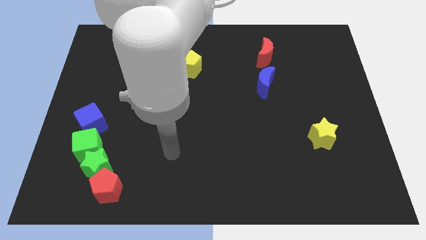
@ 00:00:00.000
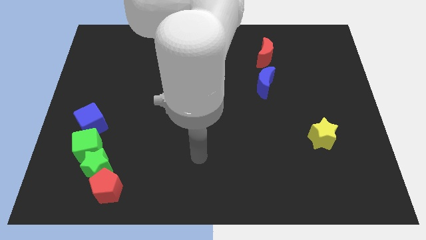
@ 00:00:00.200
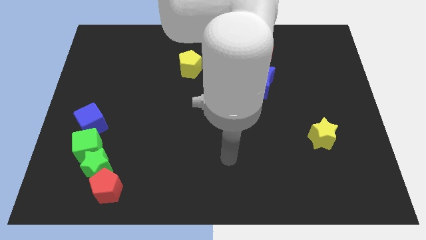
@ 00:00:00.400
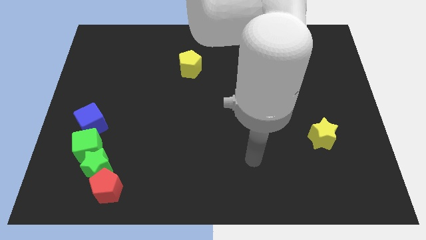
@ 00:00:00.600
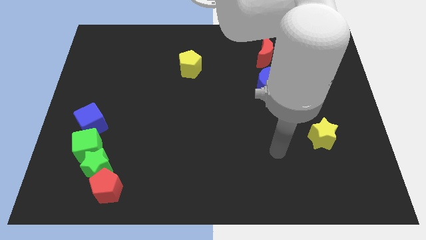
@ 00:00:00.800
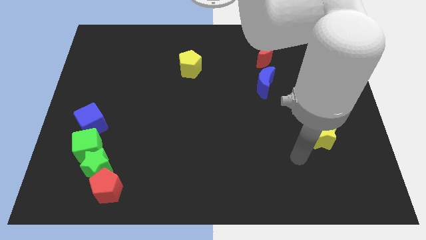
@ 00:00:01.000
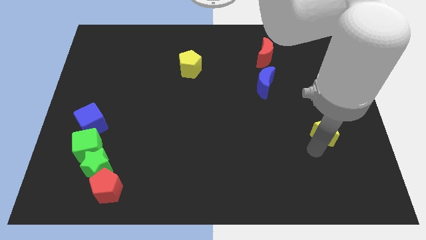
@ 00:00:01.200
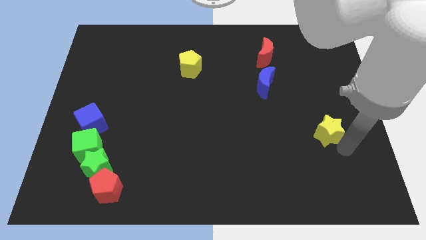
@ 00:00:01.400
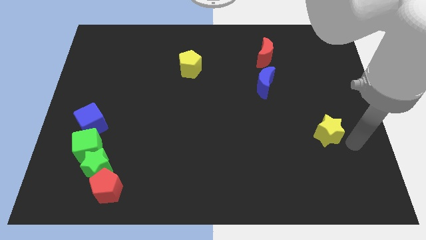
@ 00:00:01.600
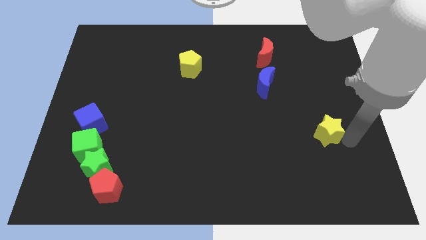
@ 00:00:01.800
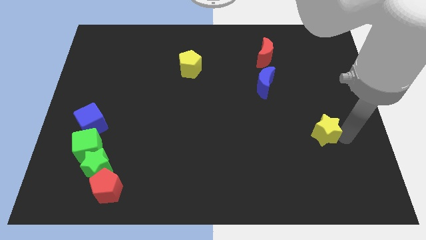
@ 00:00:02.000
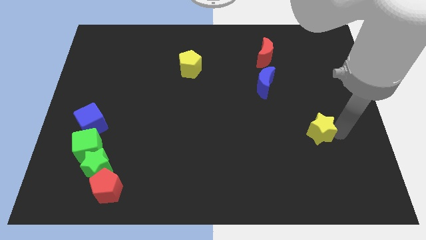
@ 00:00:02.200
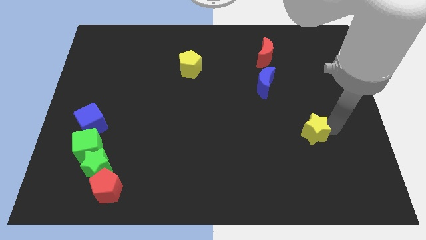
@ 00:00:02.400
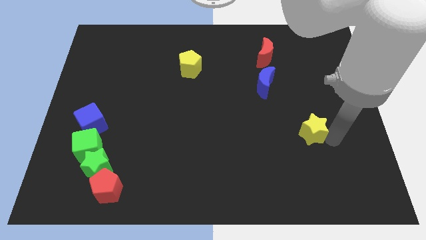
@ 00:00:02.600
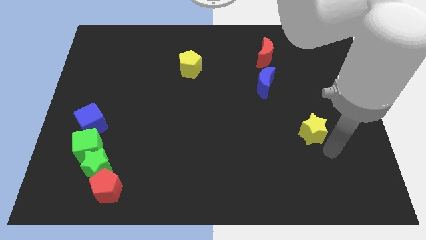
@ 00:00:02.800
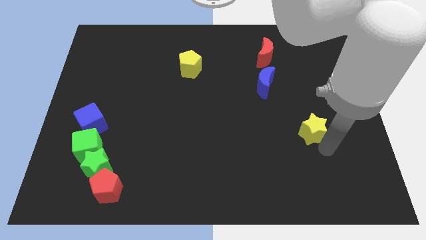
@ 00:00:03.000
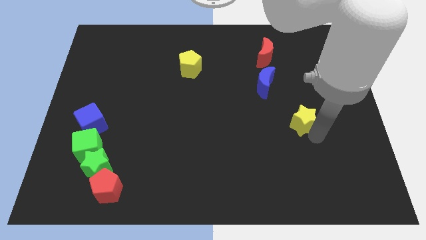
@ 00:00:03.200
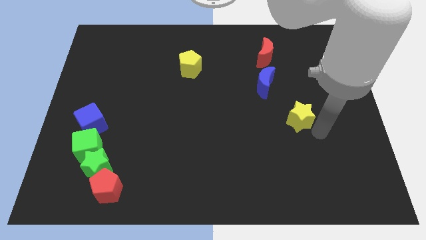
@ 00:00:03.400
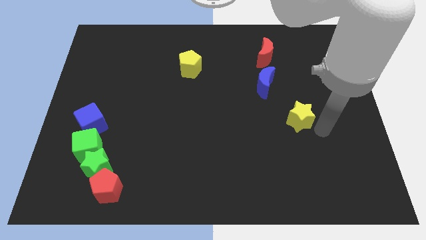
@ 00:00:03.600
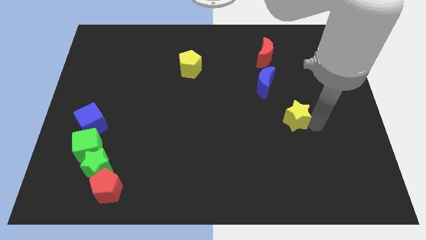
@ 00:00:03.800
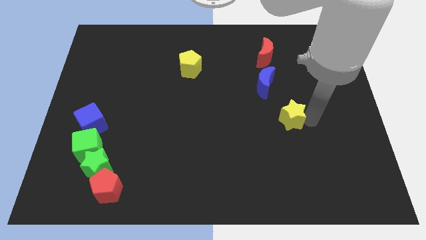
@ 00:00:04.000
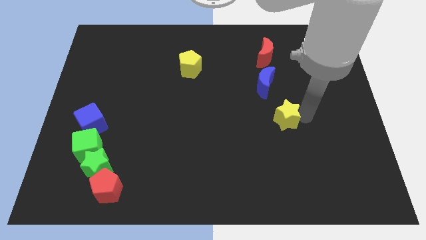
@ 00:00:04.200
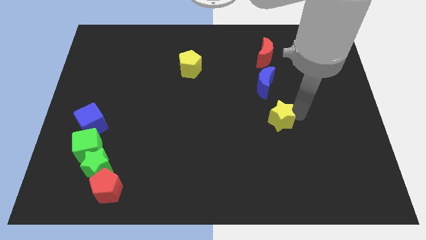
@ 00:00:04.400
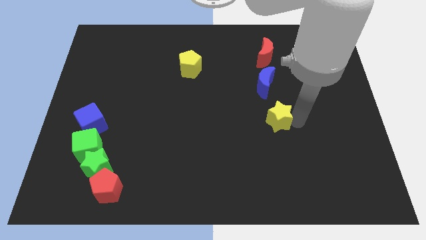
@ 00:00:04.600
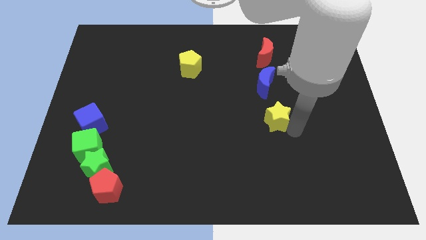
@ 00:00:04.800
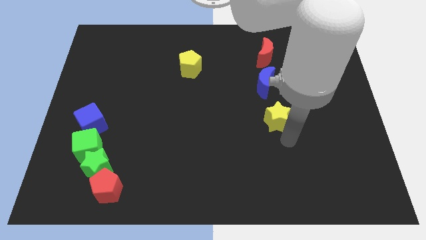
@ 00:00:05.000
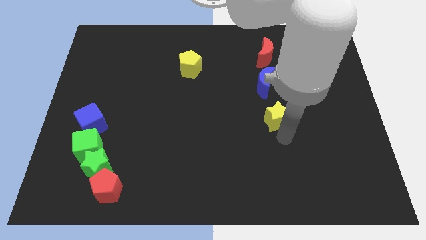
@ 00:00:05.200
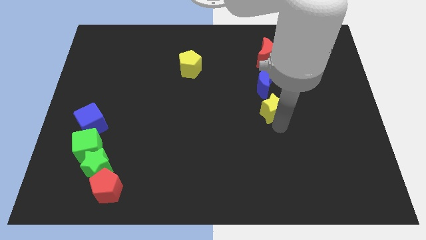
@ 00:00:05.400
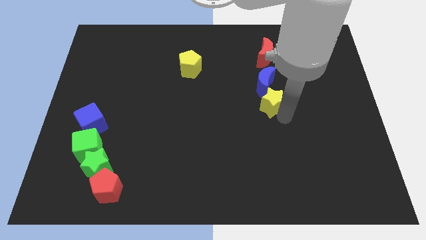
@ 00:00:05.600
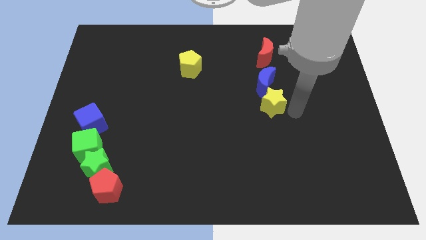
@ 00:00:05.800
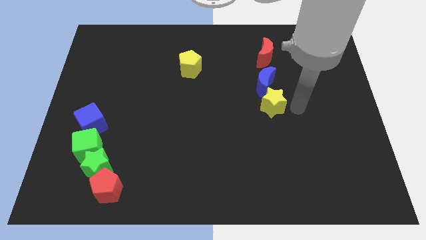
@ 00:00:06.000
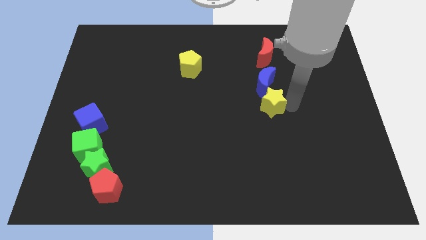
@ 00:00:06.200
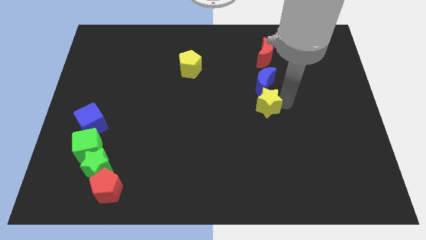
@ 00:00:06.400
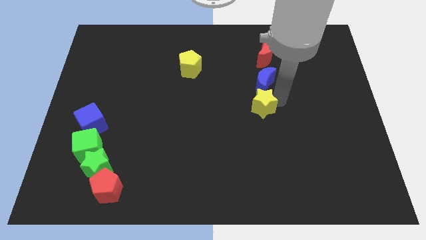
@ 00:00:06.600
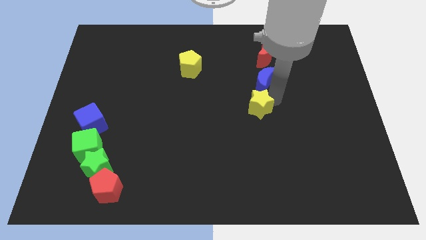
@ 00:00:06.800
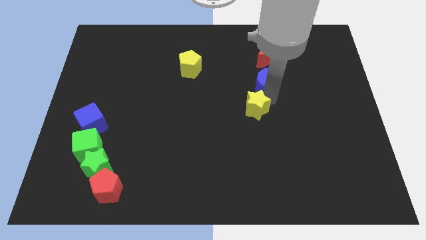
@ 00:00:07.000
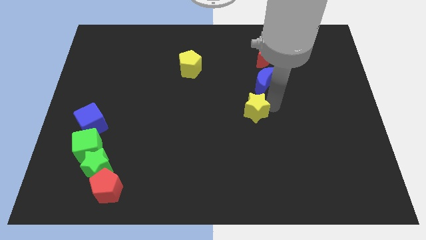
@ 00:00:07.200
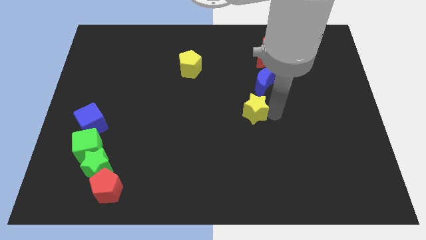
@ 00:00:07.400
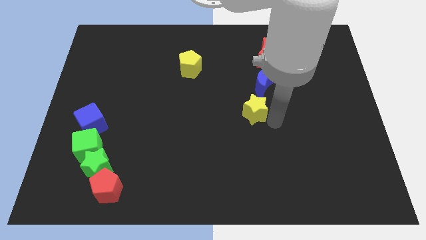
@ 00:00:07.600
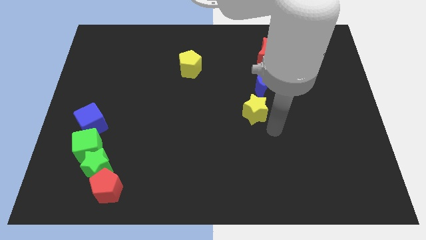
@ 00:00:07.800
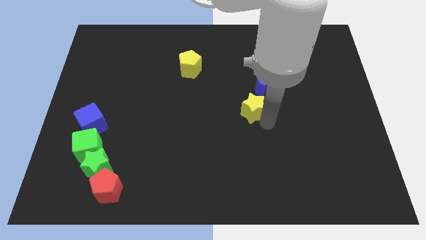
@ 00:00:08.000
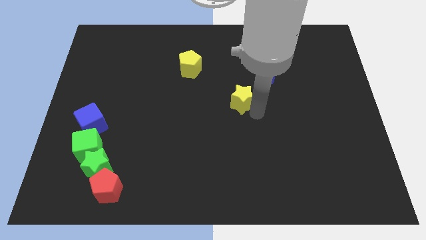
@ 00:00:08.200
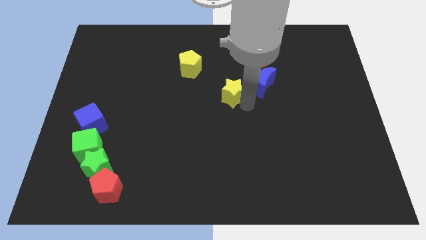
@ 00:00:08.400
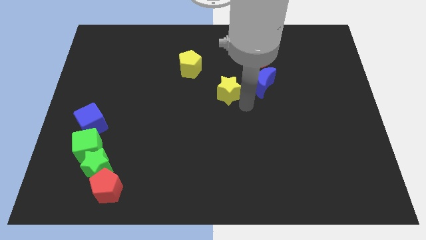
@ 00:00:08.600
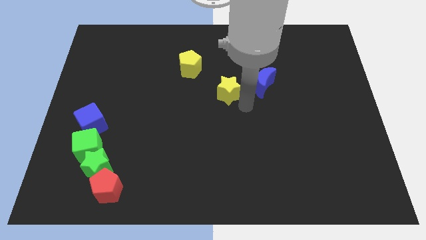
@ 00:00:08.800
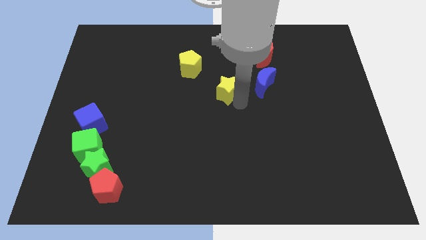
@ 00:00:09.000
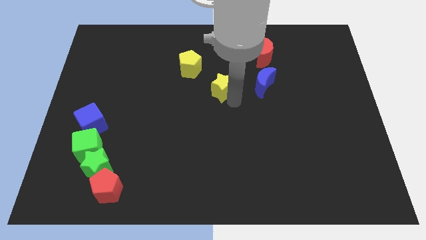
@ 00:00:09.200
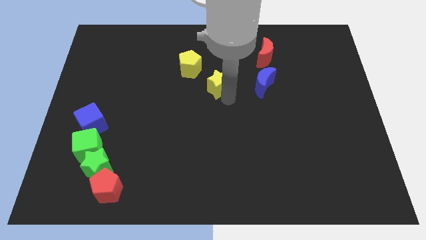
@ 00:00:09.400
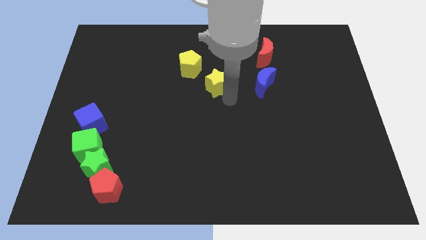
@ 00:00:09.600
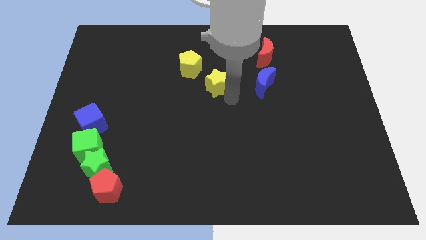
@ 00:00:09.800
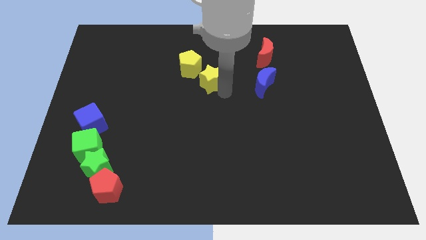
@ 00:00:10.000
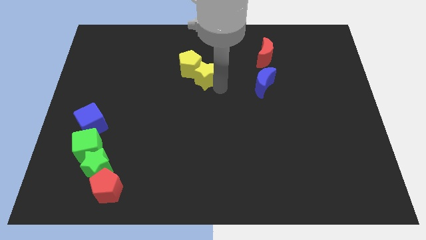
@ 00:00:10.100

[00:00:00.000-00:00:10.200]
slide the yellow star towards the yellow pentagon

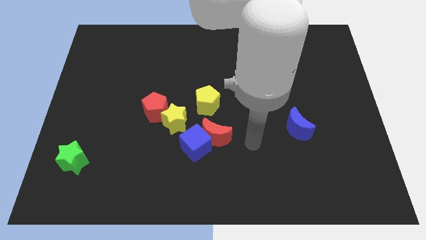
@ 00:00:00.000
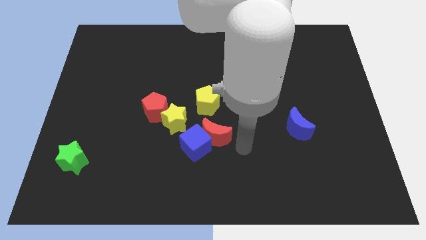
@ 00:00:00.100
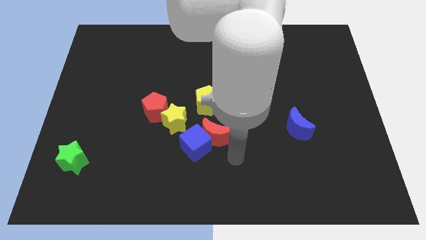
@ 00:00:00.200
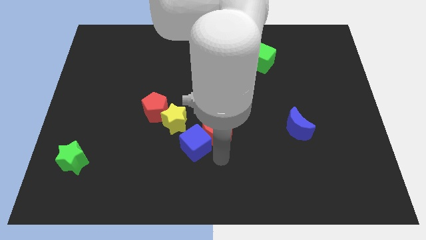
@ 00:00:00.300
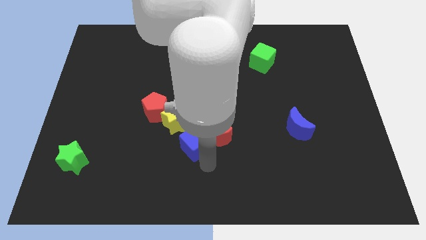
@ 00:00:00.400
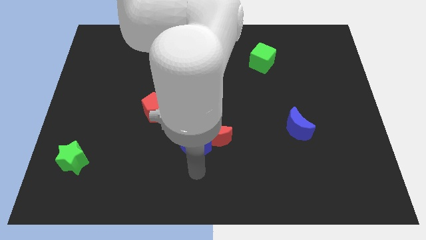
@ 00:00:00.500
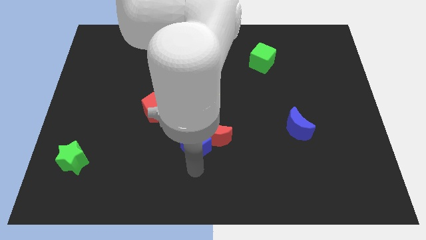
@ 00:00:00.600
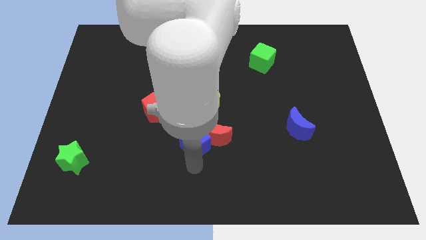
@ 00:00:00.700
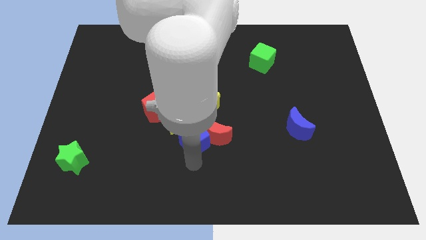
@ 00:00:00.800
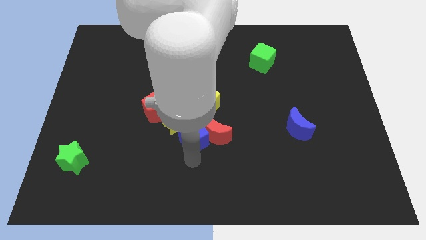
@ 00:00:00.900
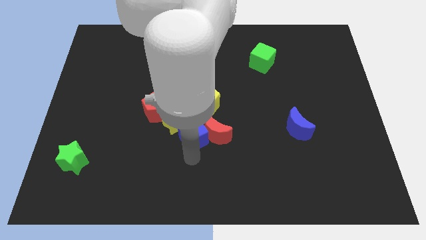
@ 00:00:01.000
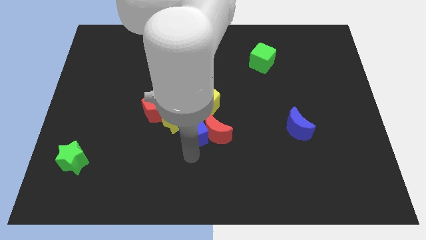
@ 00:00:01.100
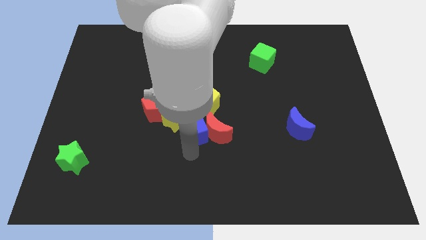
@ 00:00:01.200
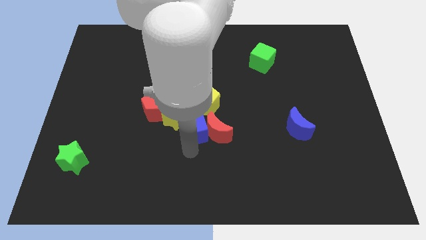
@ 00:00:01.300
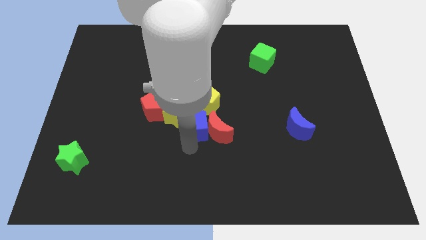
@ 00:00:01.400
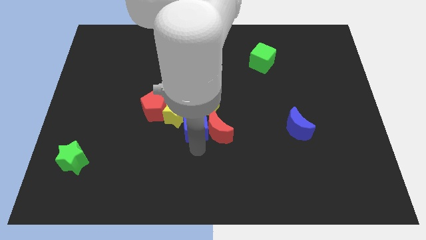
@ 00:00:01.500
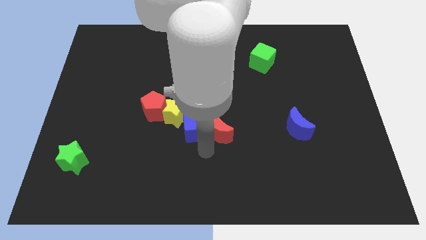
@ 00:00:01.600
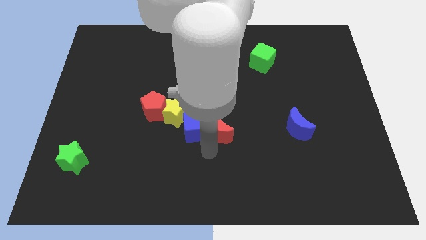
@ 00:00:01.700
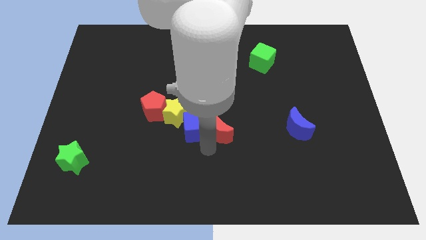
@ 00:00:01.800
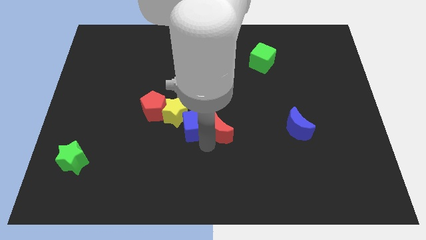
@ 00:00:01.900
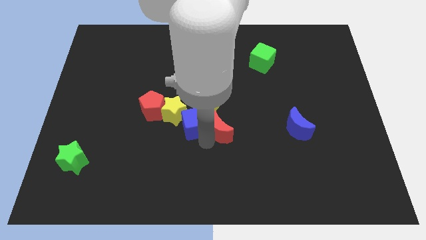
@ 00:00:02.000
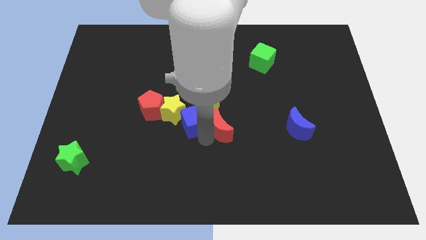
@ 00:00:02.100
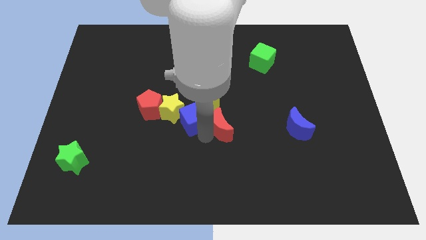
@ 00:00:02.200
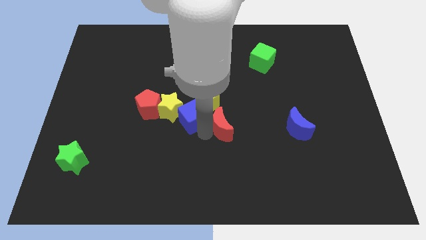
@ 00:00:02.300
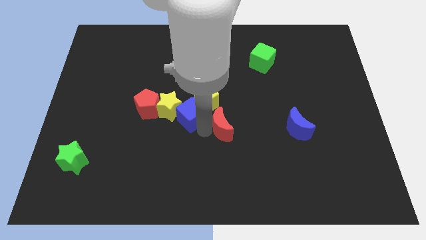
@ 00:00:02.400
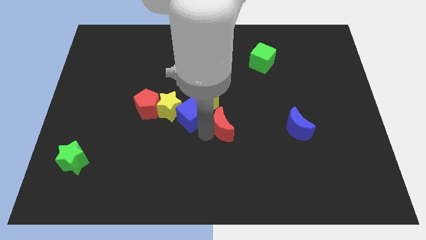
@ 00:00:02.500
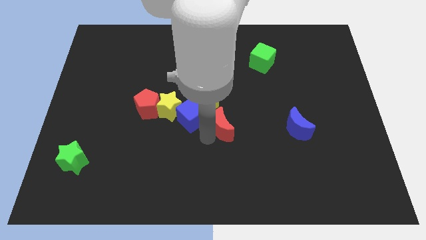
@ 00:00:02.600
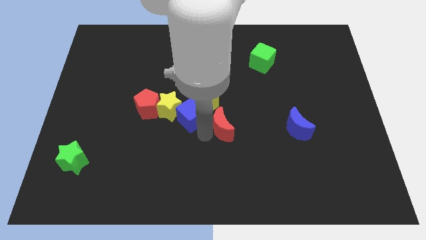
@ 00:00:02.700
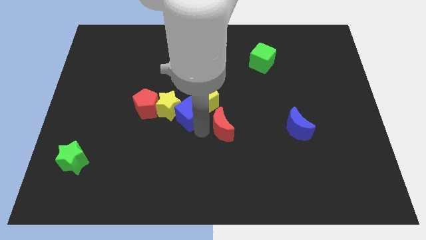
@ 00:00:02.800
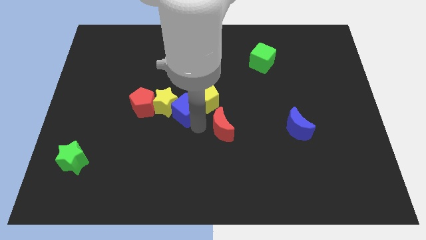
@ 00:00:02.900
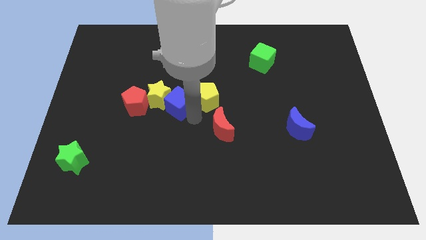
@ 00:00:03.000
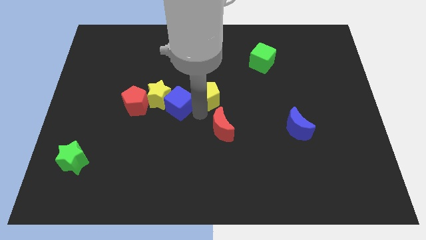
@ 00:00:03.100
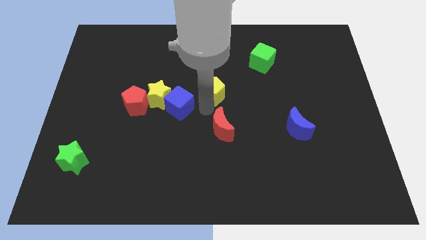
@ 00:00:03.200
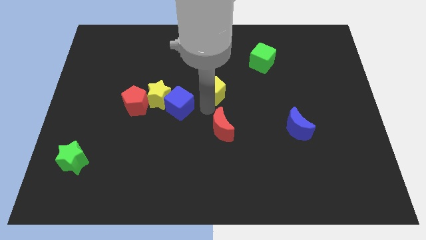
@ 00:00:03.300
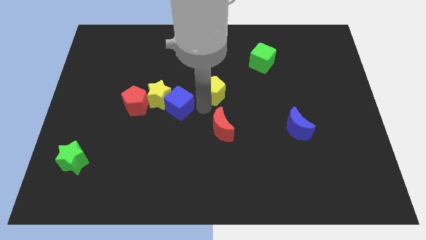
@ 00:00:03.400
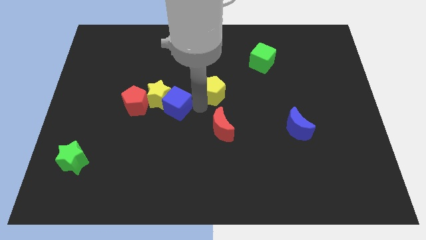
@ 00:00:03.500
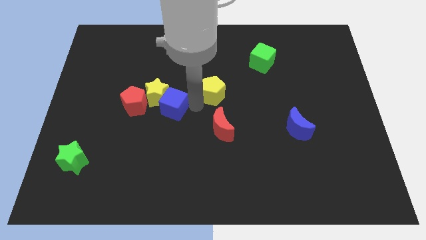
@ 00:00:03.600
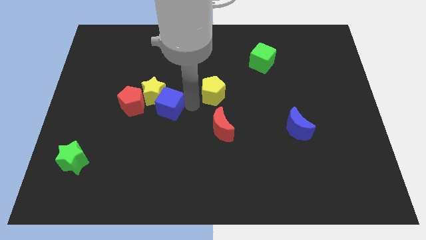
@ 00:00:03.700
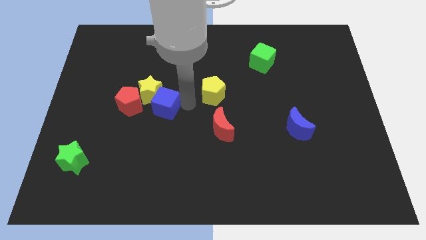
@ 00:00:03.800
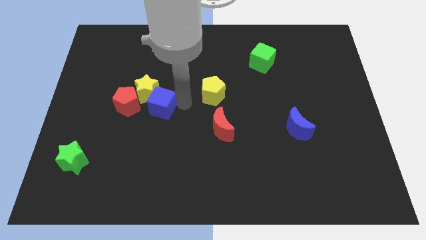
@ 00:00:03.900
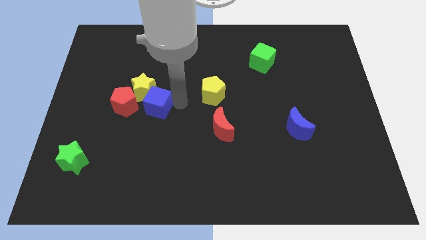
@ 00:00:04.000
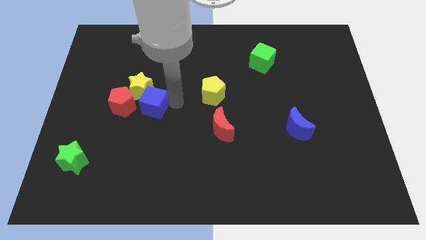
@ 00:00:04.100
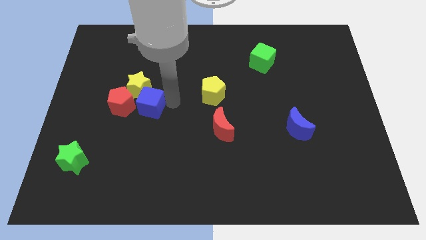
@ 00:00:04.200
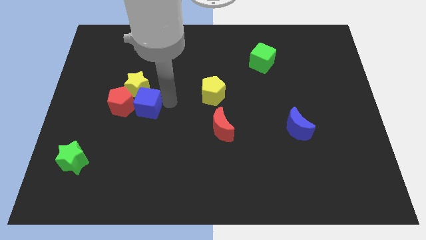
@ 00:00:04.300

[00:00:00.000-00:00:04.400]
move the blue cube to the red pentagon
